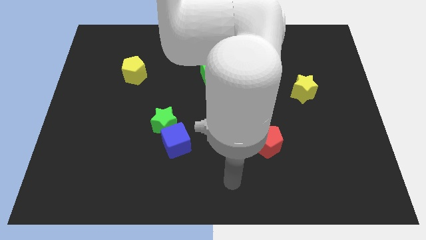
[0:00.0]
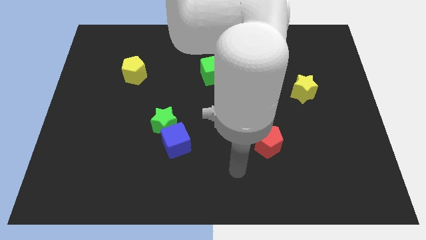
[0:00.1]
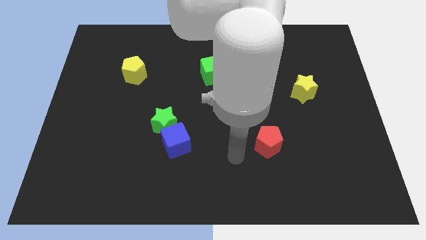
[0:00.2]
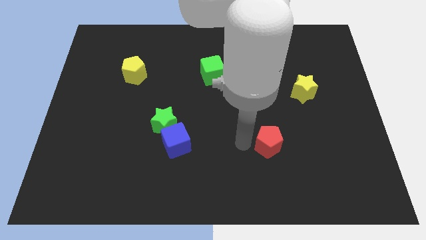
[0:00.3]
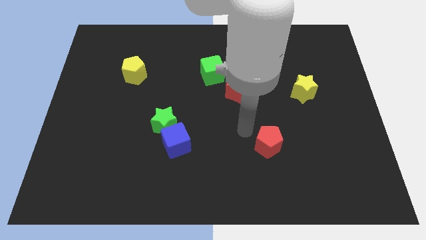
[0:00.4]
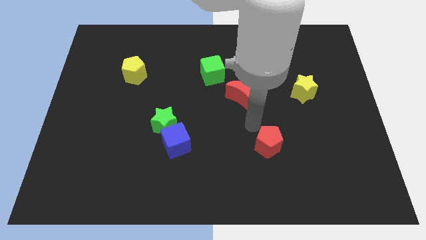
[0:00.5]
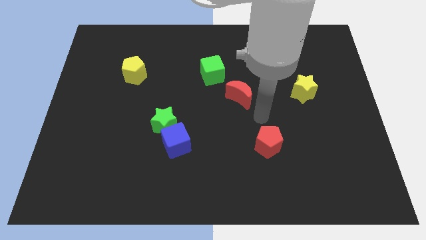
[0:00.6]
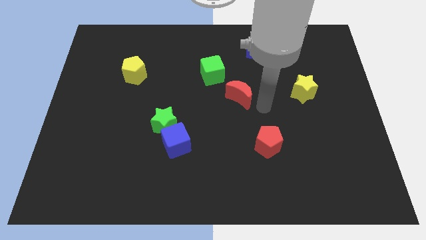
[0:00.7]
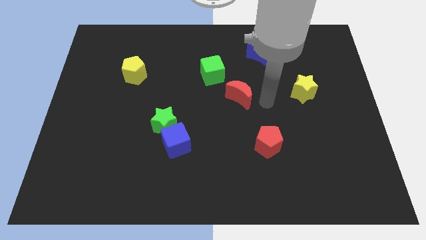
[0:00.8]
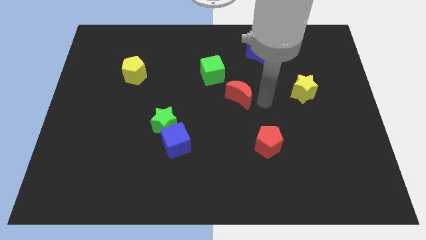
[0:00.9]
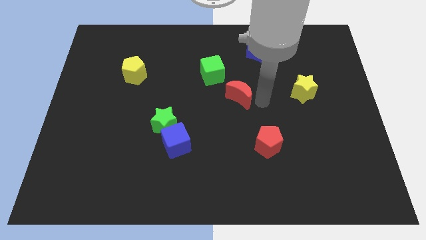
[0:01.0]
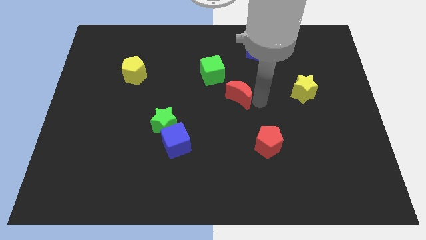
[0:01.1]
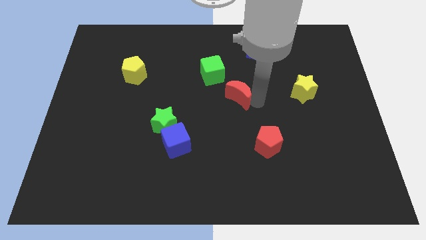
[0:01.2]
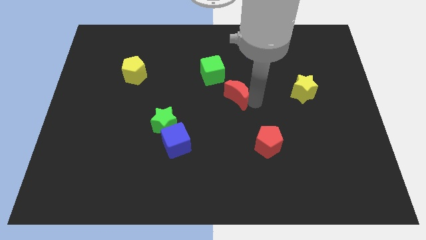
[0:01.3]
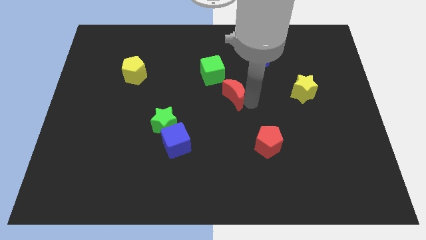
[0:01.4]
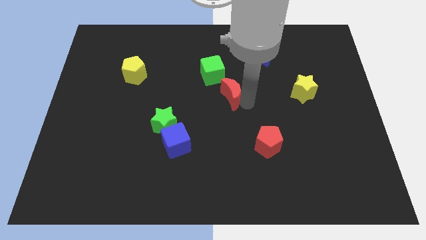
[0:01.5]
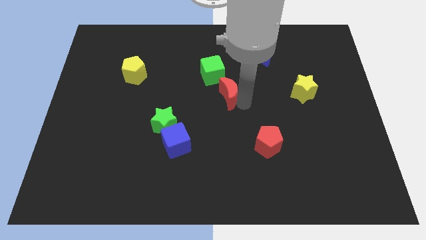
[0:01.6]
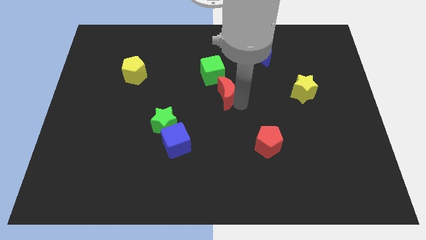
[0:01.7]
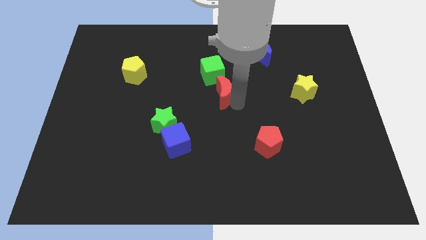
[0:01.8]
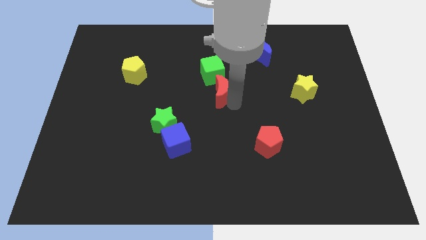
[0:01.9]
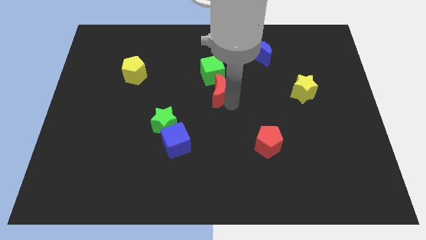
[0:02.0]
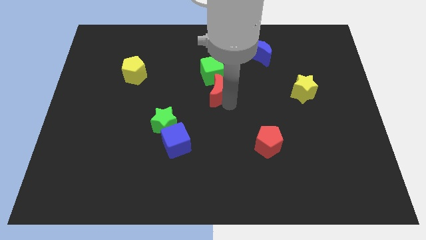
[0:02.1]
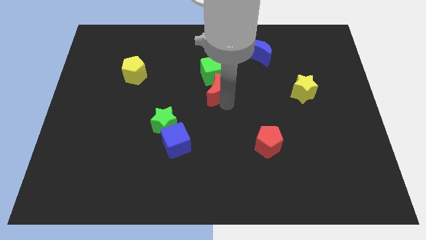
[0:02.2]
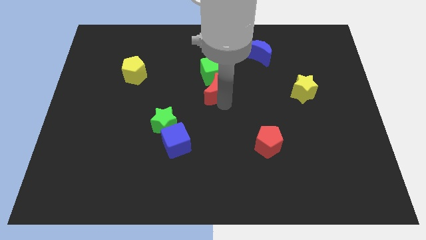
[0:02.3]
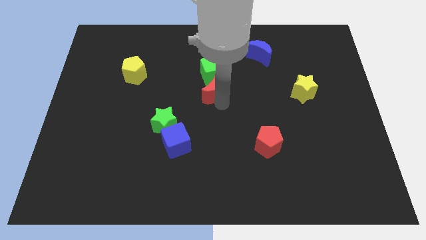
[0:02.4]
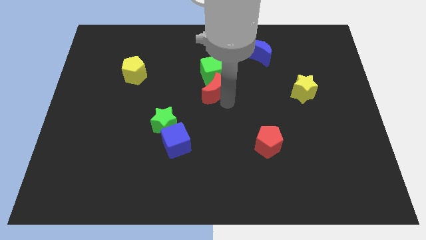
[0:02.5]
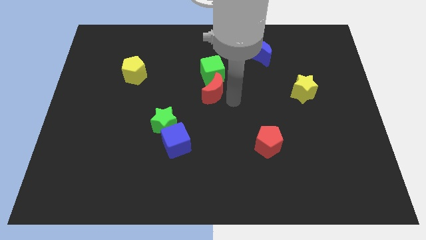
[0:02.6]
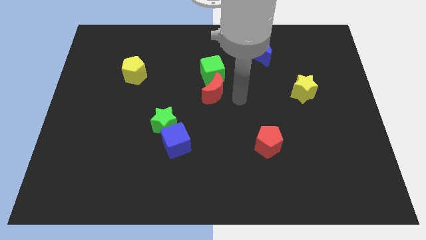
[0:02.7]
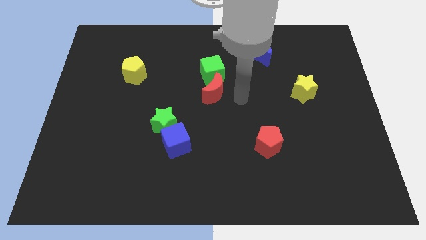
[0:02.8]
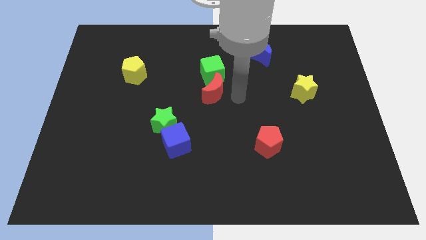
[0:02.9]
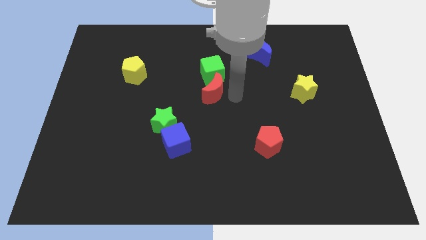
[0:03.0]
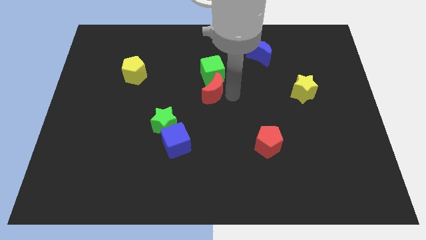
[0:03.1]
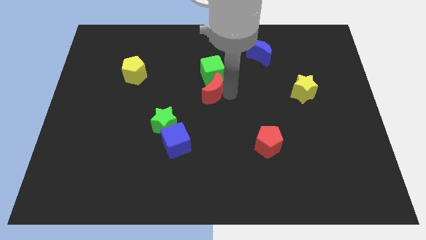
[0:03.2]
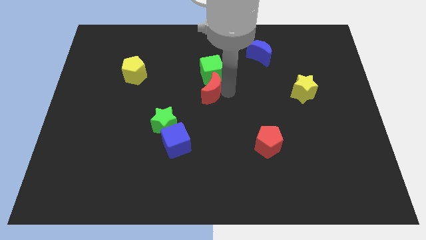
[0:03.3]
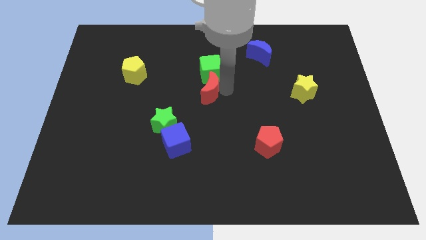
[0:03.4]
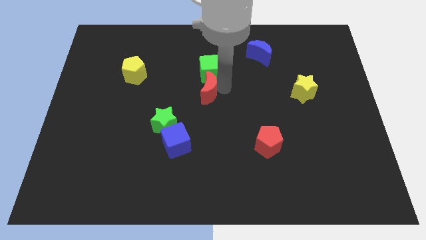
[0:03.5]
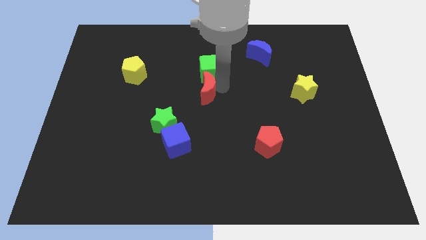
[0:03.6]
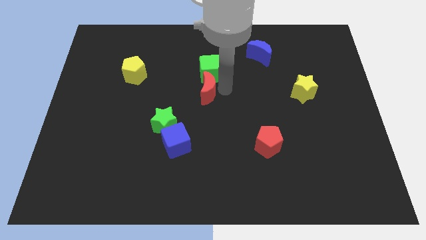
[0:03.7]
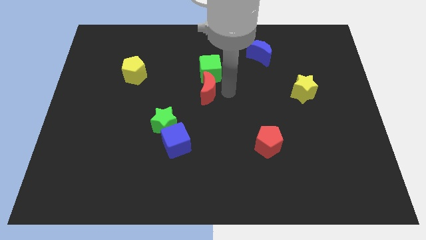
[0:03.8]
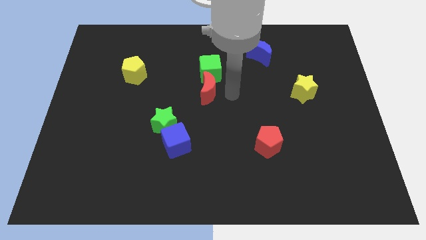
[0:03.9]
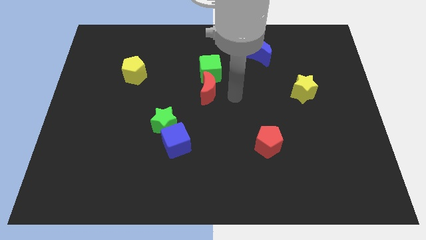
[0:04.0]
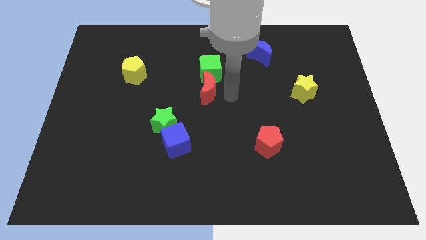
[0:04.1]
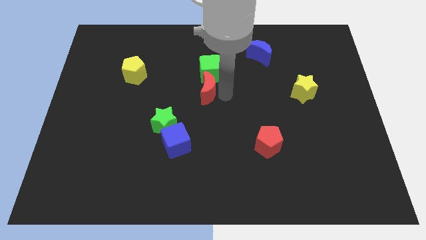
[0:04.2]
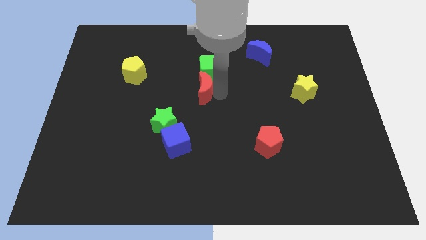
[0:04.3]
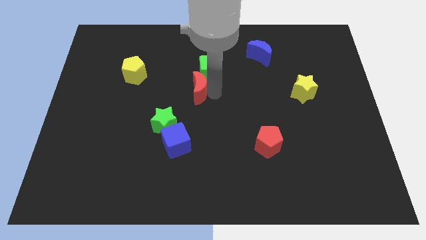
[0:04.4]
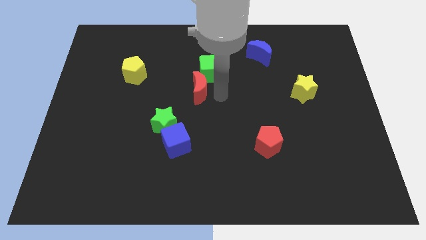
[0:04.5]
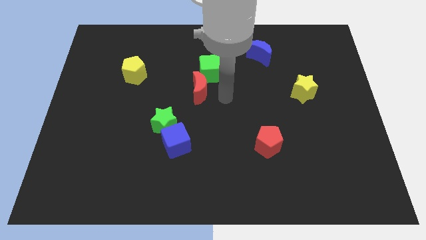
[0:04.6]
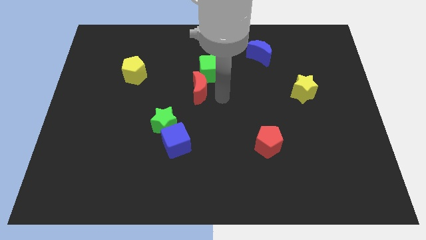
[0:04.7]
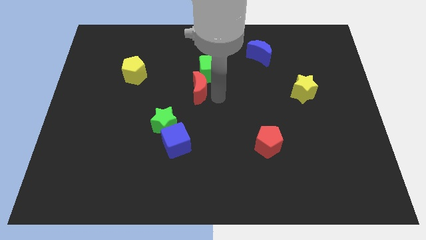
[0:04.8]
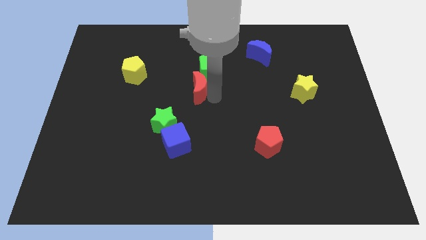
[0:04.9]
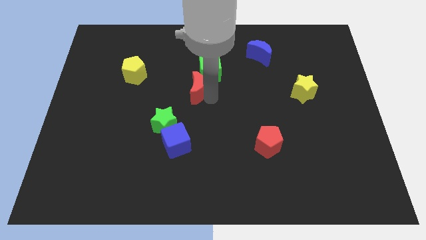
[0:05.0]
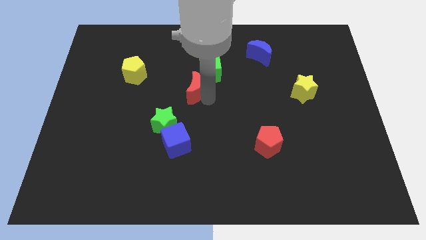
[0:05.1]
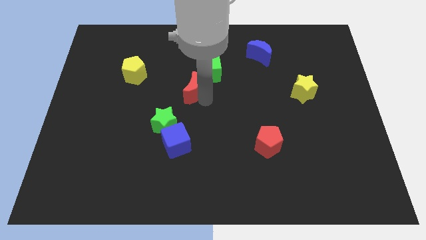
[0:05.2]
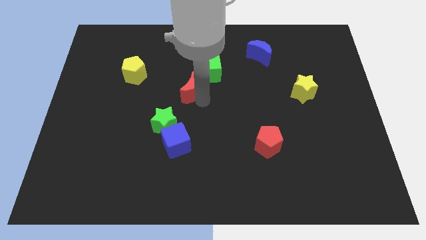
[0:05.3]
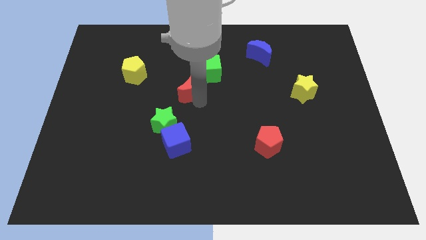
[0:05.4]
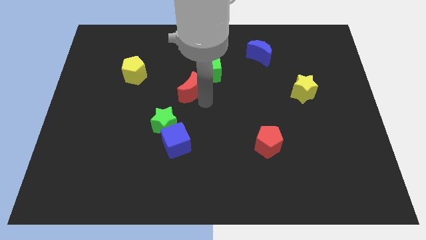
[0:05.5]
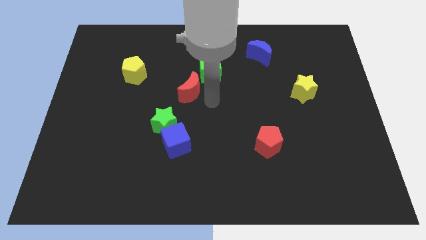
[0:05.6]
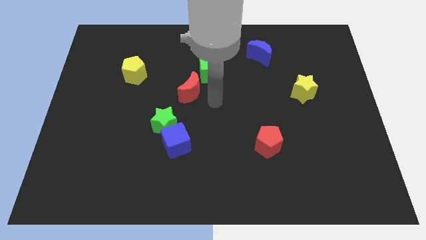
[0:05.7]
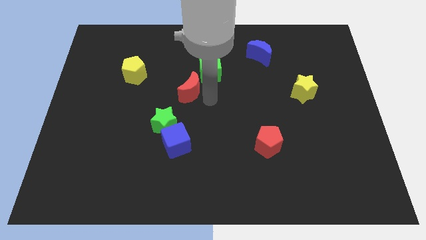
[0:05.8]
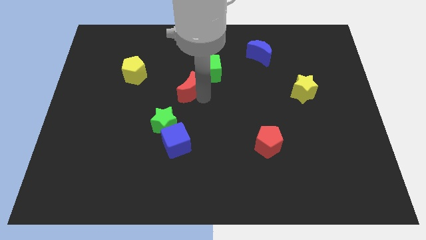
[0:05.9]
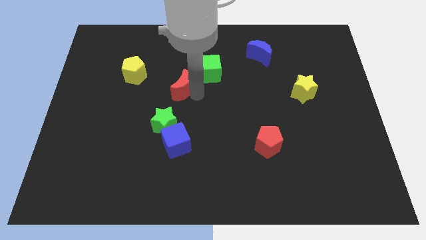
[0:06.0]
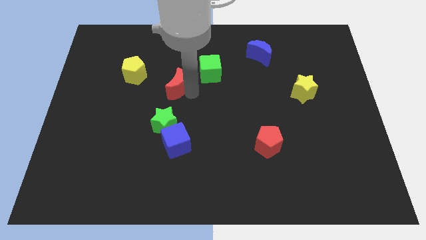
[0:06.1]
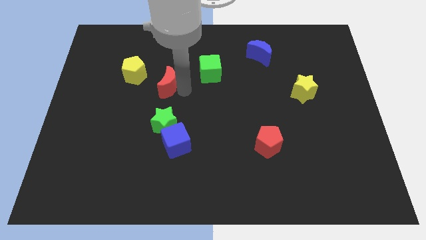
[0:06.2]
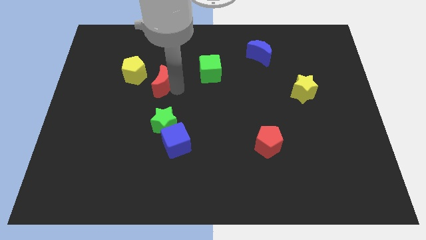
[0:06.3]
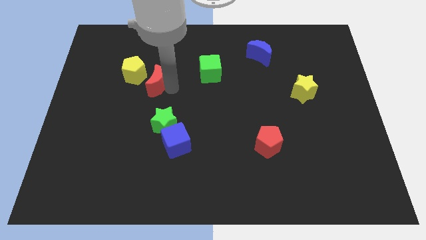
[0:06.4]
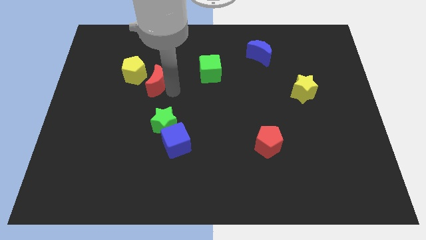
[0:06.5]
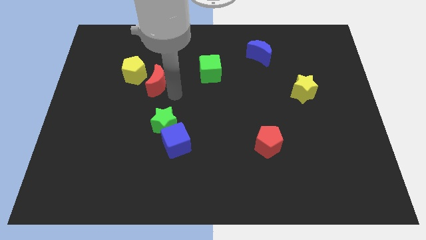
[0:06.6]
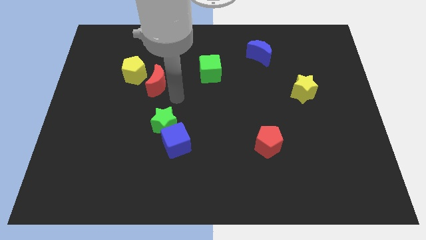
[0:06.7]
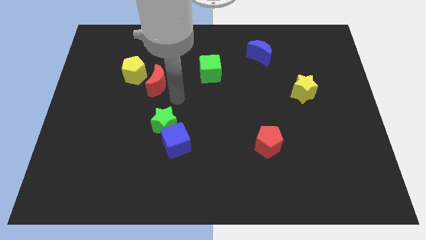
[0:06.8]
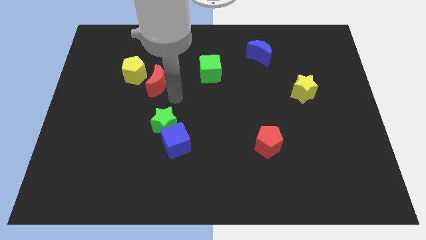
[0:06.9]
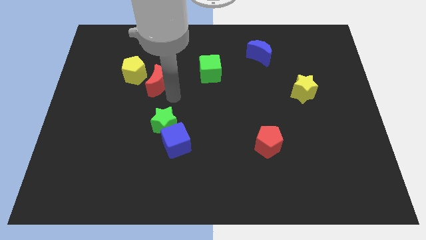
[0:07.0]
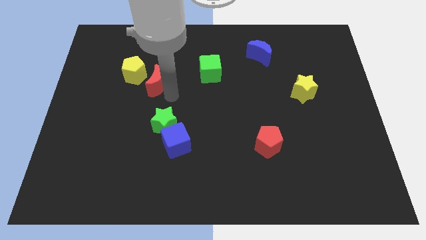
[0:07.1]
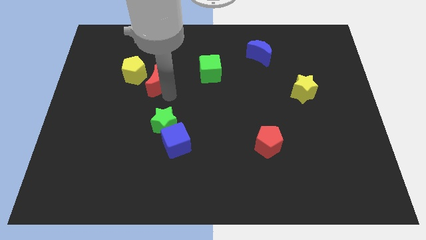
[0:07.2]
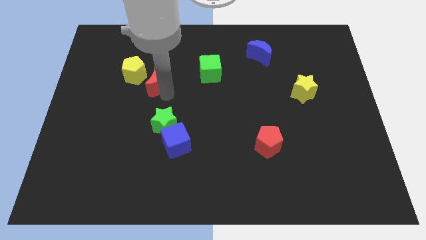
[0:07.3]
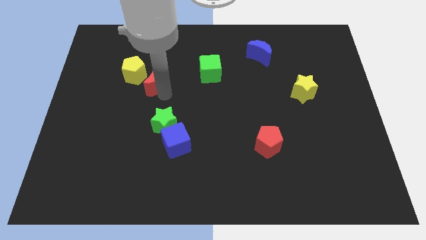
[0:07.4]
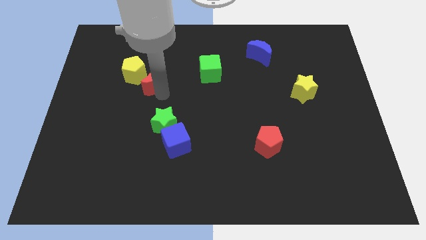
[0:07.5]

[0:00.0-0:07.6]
move the red moon to the yellow pentagon

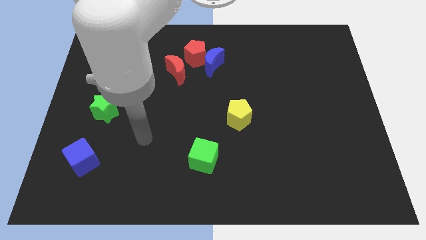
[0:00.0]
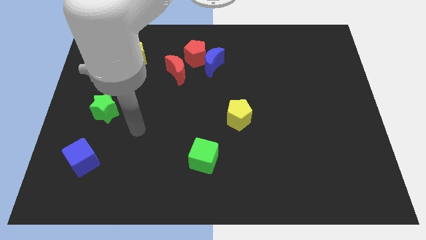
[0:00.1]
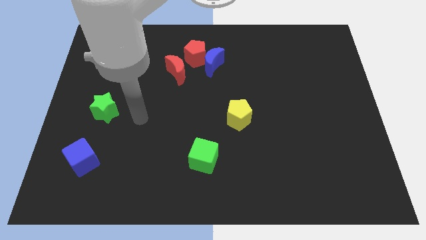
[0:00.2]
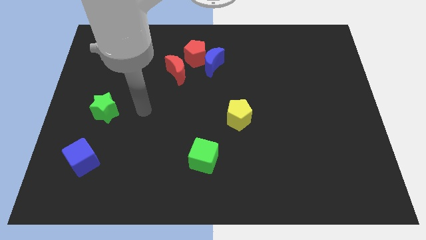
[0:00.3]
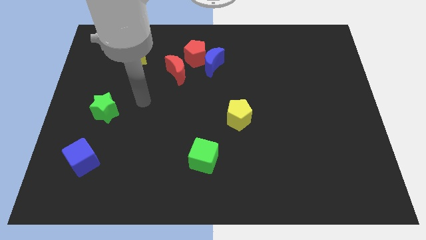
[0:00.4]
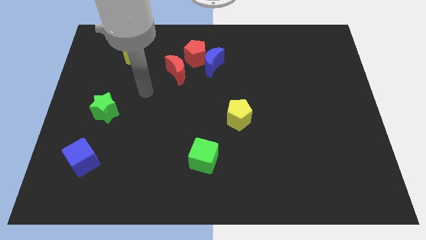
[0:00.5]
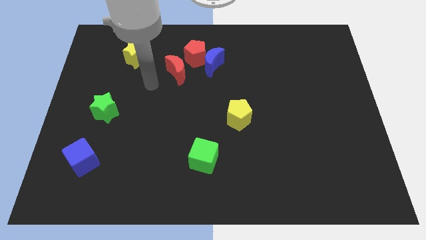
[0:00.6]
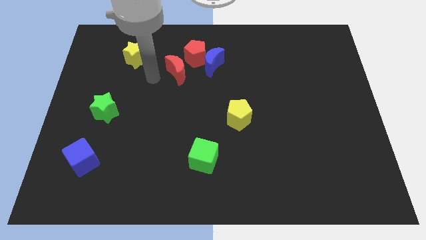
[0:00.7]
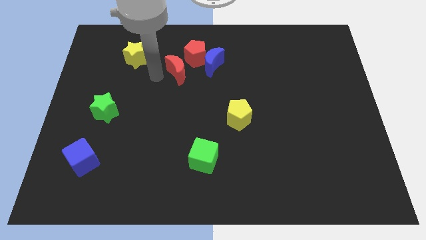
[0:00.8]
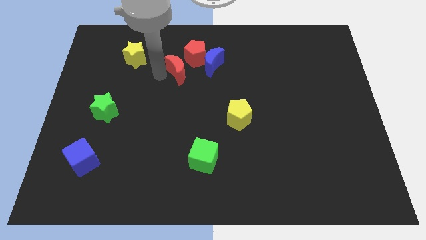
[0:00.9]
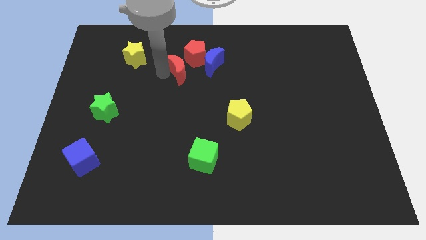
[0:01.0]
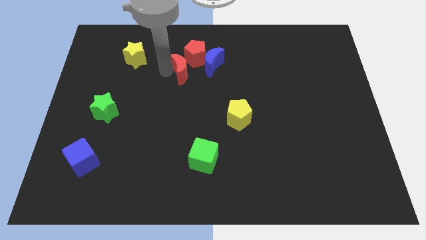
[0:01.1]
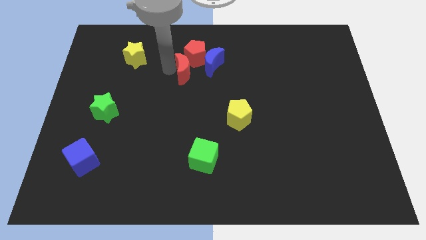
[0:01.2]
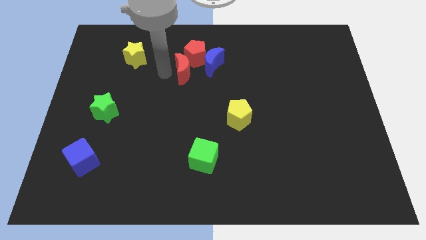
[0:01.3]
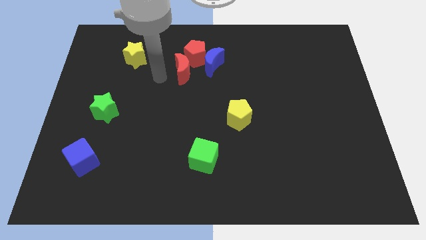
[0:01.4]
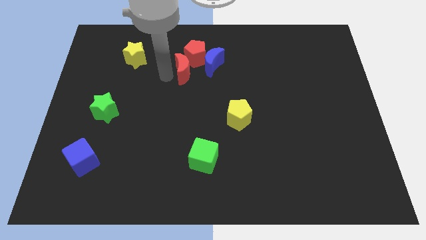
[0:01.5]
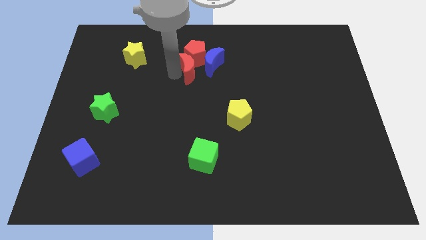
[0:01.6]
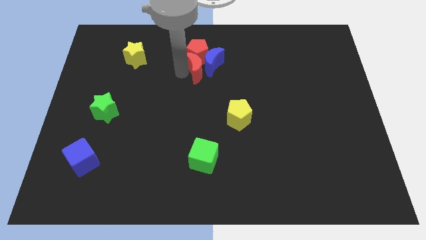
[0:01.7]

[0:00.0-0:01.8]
push the red moon close to the blue moon
